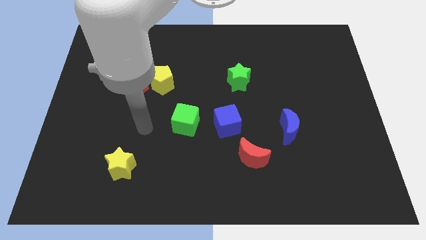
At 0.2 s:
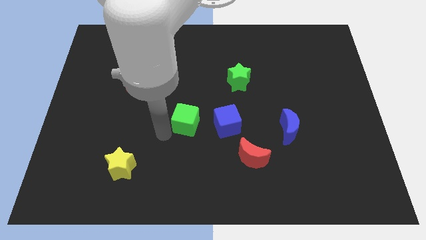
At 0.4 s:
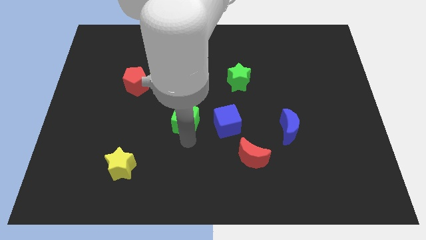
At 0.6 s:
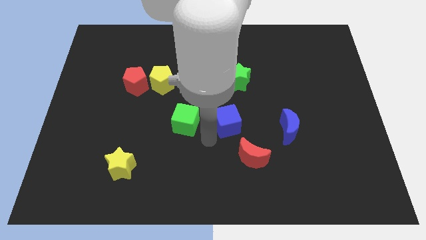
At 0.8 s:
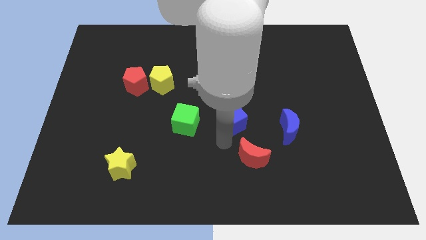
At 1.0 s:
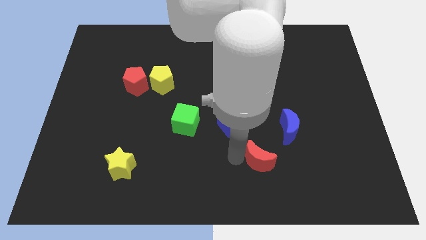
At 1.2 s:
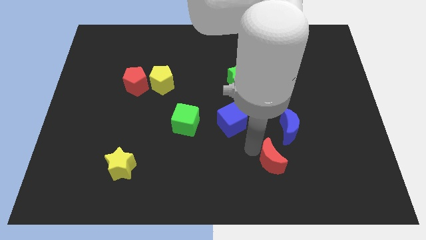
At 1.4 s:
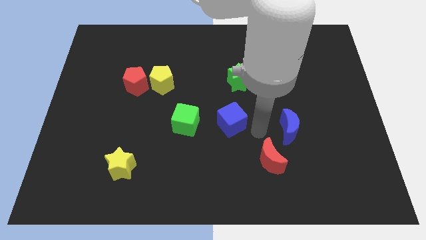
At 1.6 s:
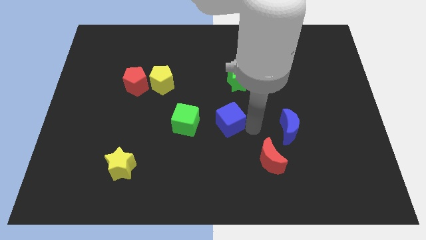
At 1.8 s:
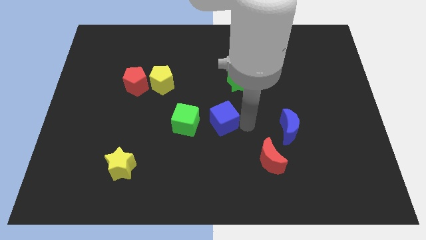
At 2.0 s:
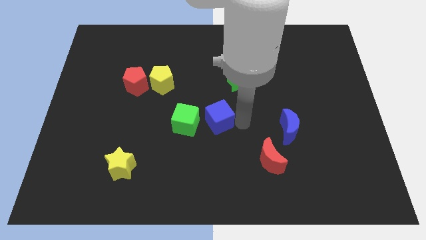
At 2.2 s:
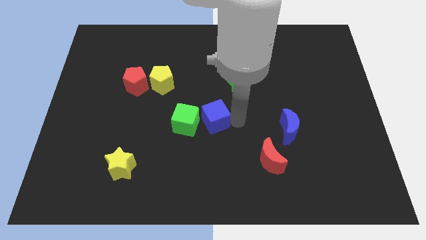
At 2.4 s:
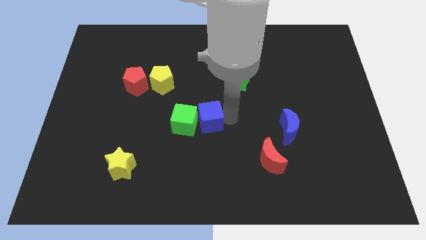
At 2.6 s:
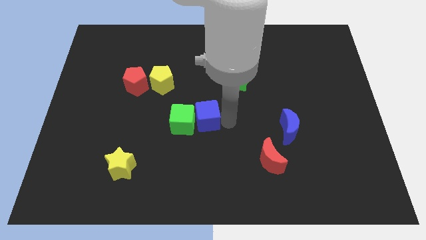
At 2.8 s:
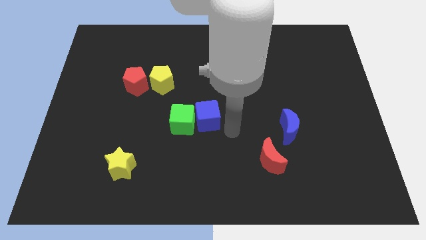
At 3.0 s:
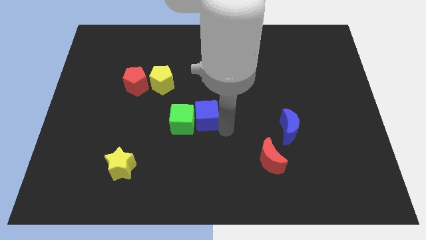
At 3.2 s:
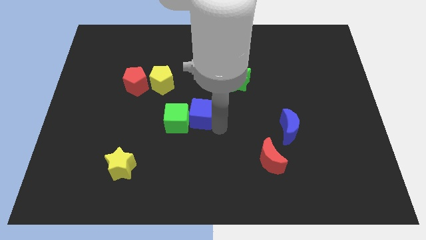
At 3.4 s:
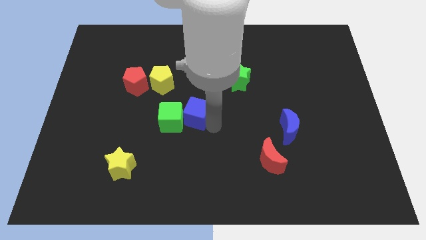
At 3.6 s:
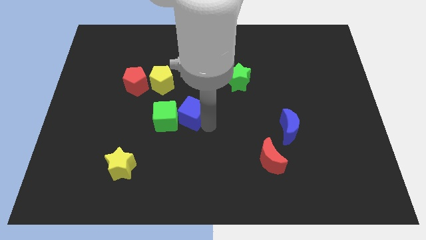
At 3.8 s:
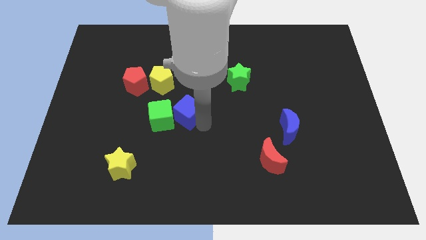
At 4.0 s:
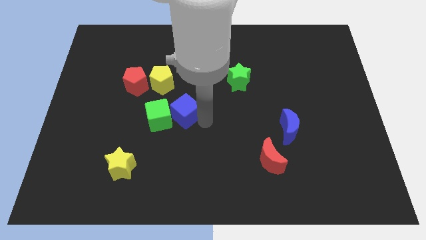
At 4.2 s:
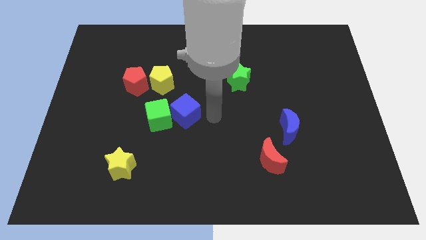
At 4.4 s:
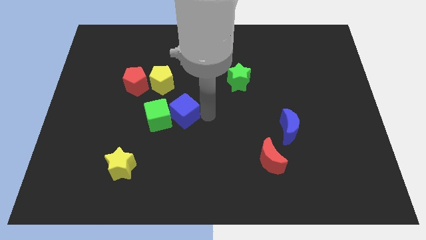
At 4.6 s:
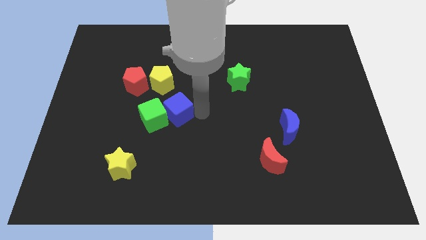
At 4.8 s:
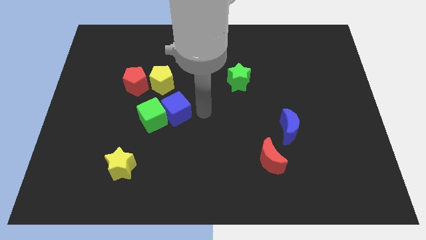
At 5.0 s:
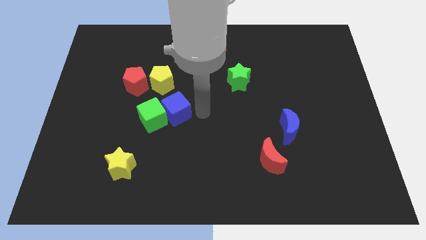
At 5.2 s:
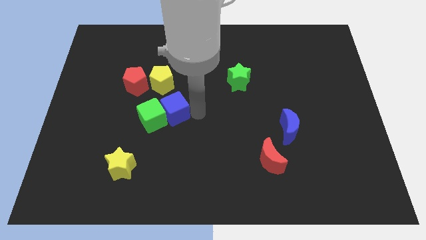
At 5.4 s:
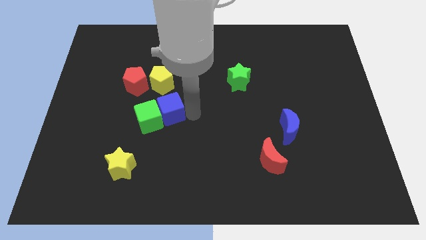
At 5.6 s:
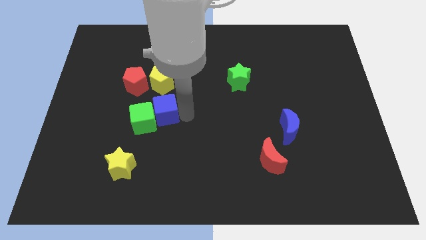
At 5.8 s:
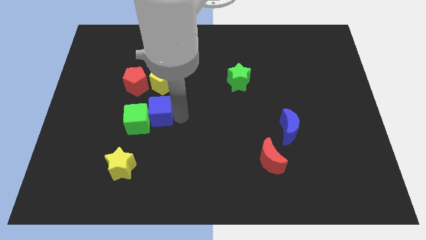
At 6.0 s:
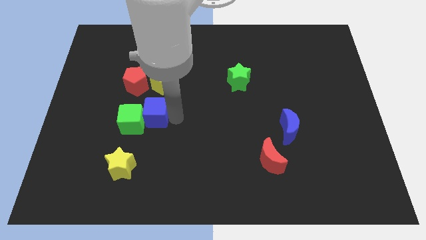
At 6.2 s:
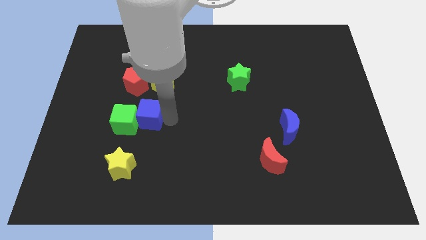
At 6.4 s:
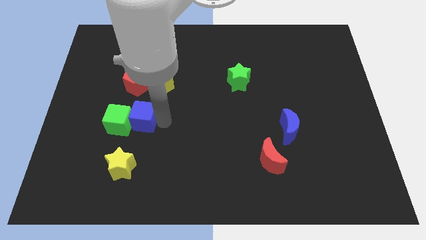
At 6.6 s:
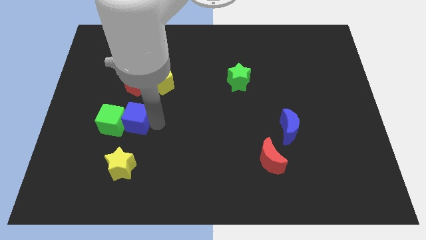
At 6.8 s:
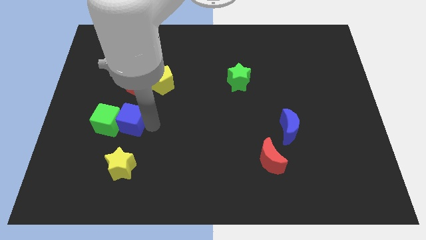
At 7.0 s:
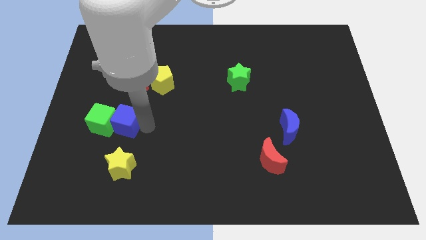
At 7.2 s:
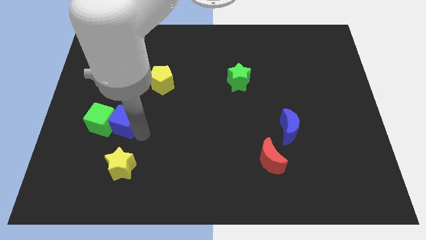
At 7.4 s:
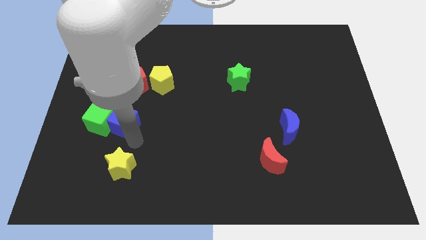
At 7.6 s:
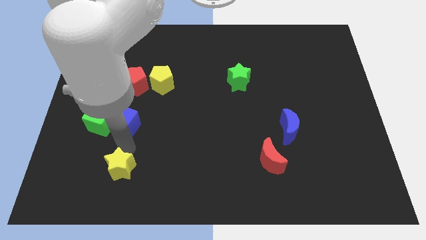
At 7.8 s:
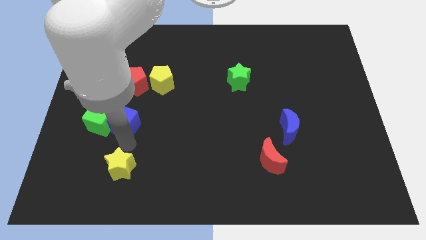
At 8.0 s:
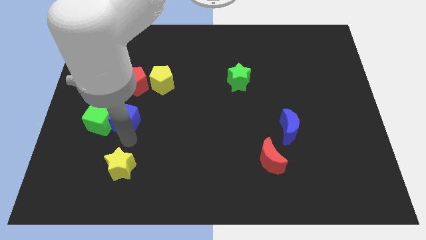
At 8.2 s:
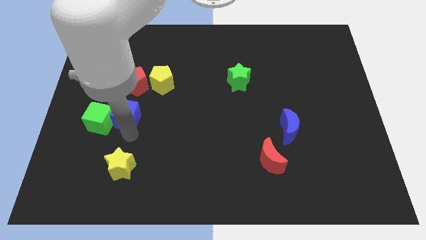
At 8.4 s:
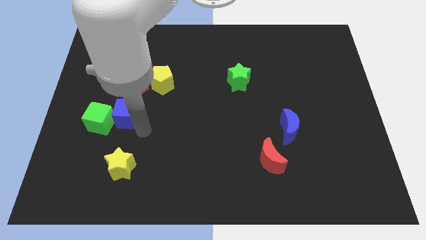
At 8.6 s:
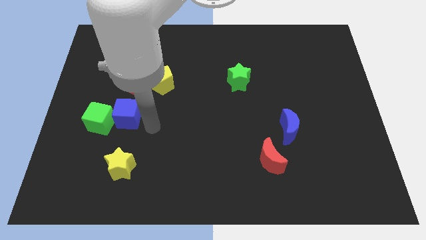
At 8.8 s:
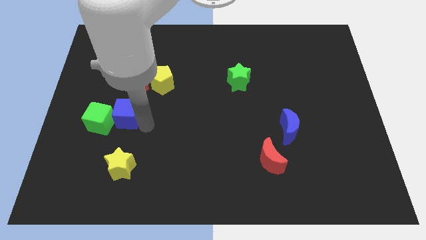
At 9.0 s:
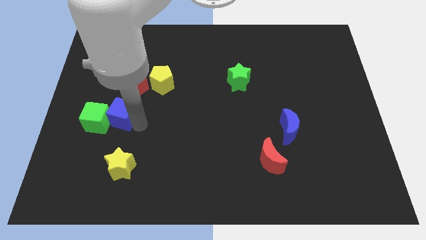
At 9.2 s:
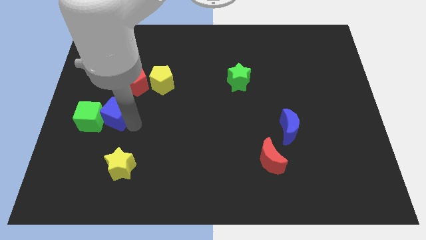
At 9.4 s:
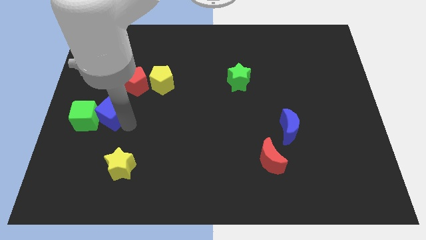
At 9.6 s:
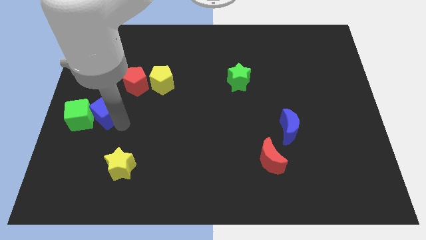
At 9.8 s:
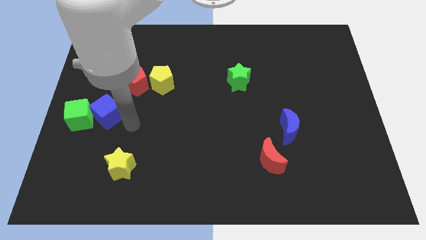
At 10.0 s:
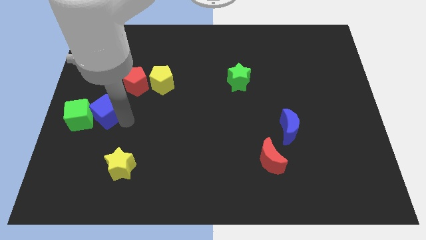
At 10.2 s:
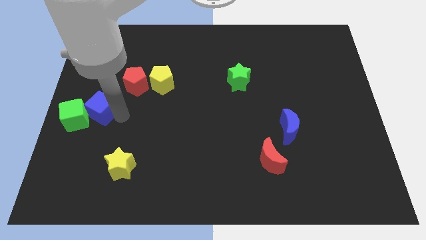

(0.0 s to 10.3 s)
put the blue cube to the center left

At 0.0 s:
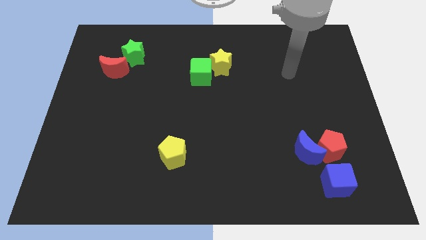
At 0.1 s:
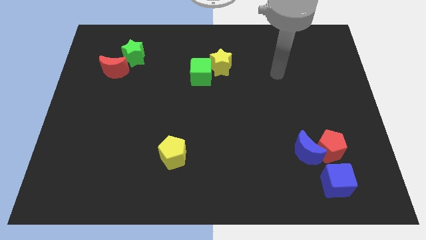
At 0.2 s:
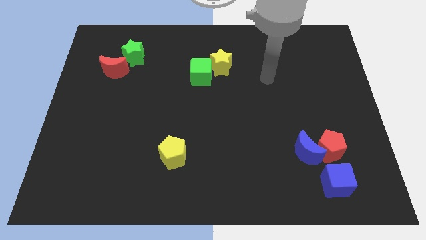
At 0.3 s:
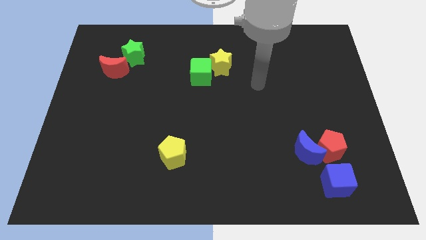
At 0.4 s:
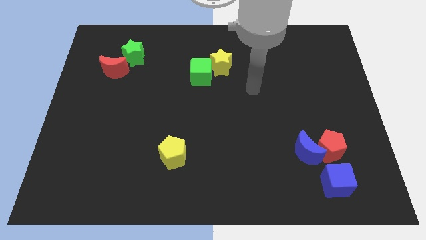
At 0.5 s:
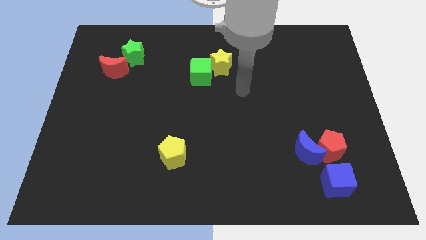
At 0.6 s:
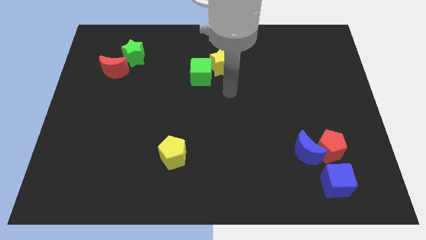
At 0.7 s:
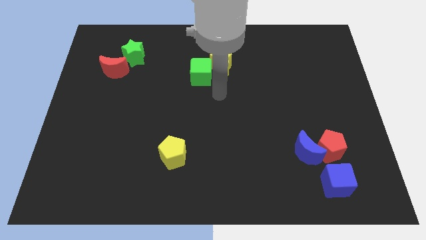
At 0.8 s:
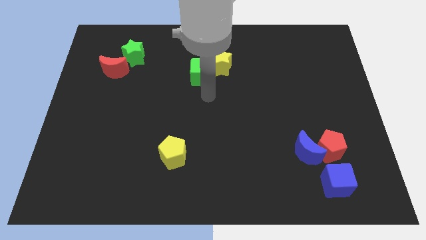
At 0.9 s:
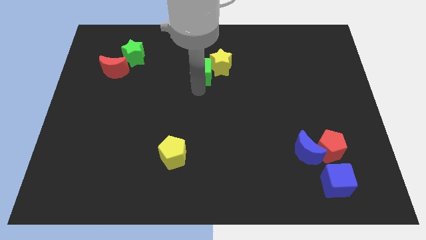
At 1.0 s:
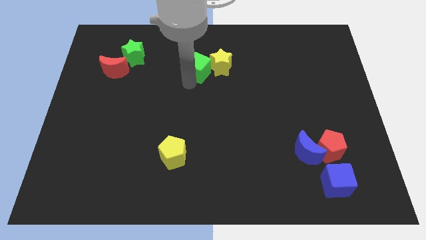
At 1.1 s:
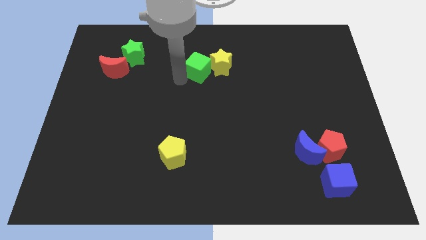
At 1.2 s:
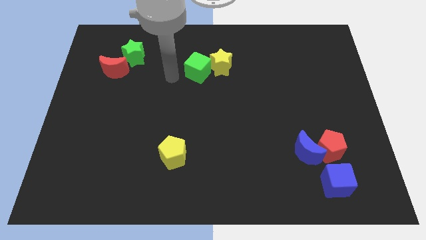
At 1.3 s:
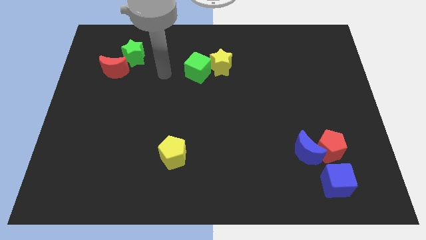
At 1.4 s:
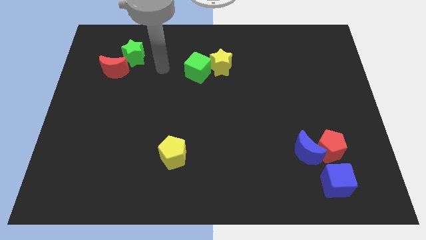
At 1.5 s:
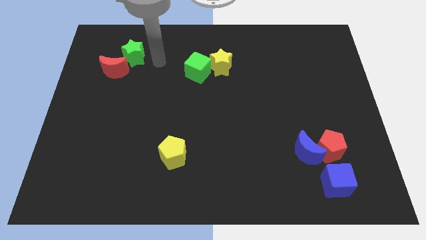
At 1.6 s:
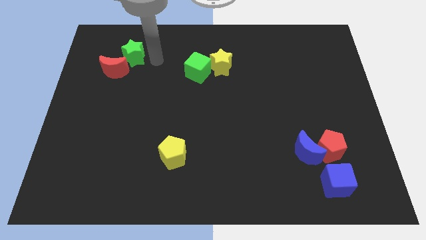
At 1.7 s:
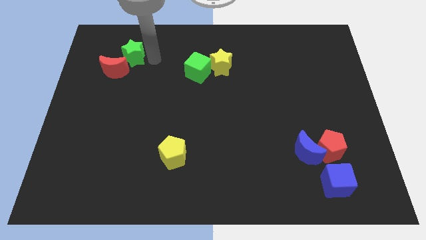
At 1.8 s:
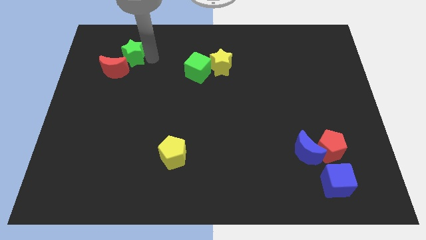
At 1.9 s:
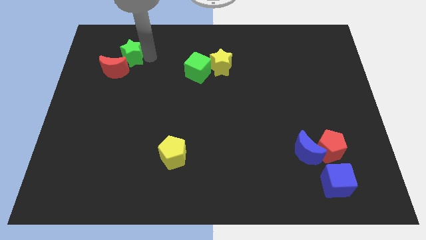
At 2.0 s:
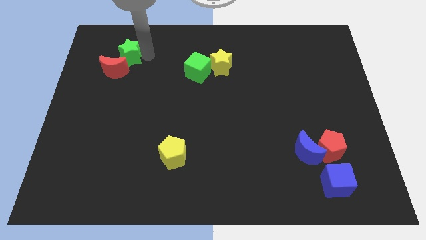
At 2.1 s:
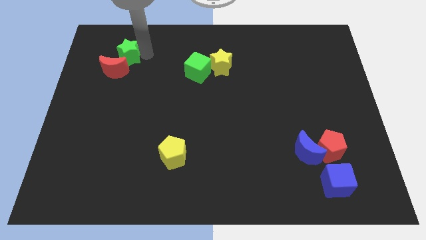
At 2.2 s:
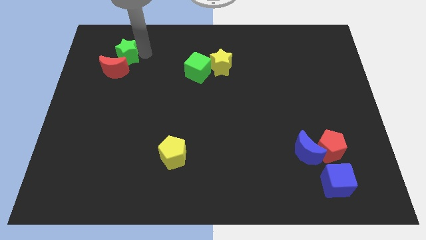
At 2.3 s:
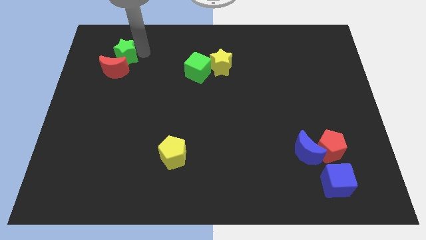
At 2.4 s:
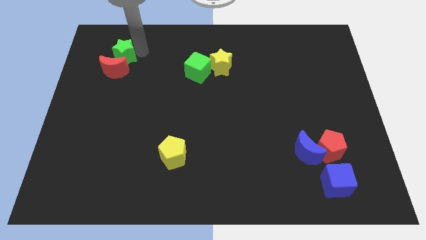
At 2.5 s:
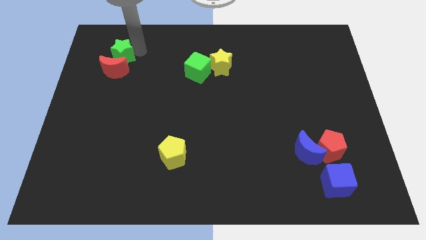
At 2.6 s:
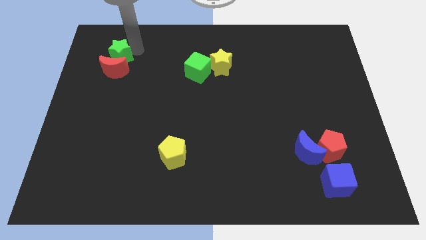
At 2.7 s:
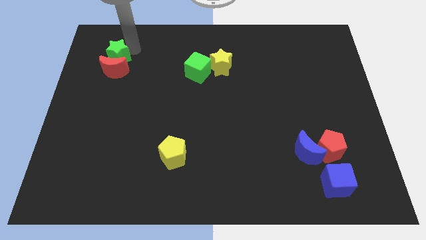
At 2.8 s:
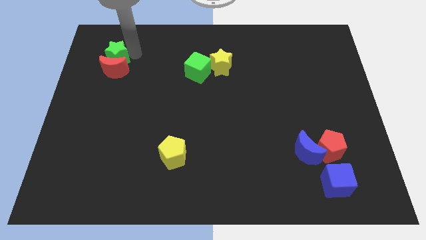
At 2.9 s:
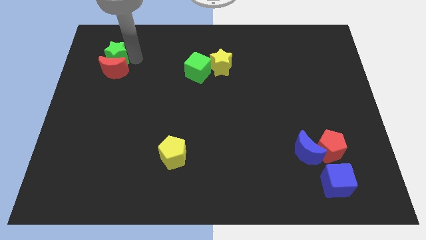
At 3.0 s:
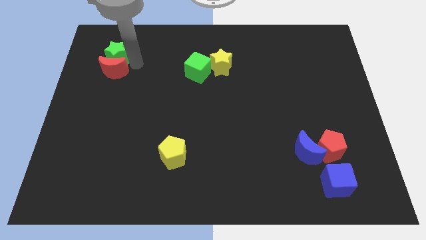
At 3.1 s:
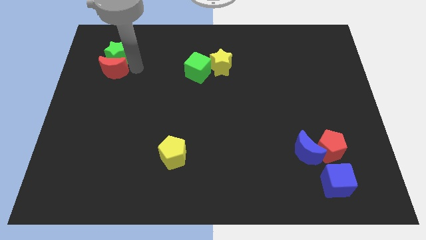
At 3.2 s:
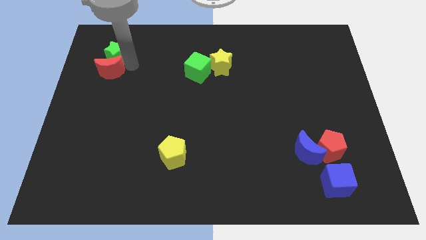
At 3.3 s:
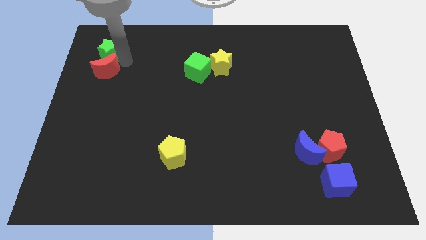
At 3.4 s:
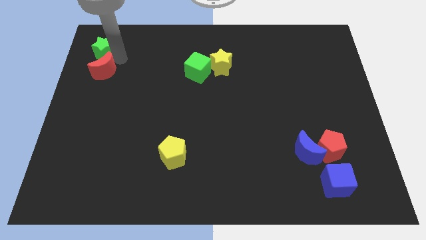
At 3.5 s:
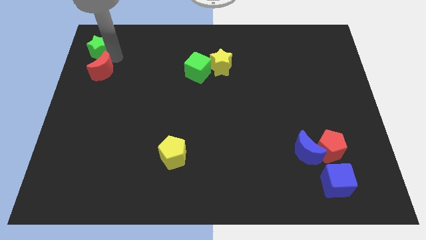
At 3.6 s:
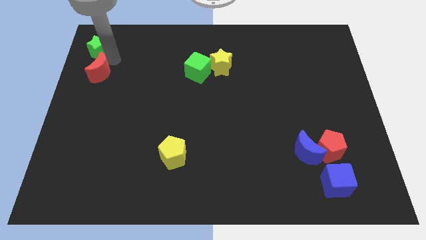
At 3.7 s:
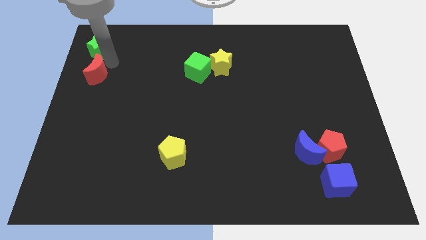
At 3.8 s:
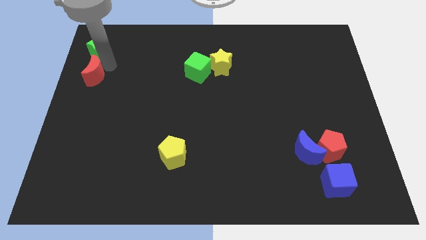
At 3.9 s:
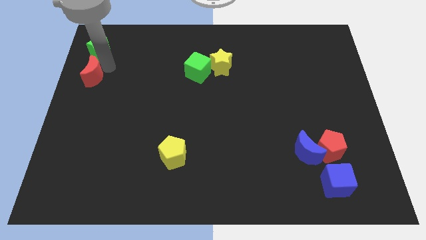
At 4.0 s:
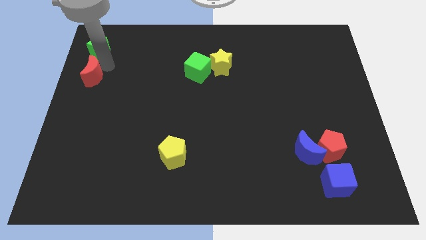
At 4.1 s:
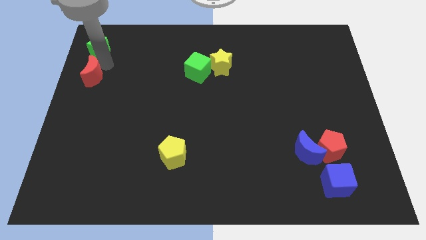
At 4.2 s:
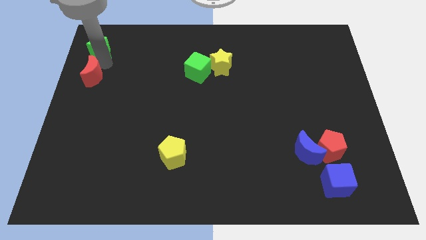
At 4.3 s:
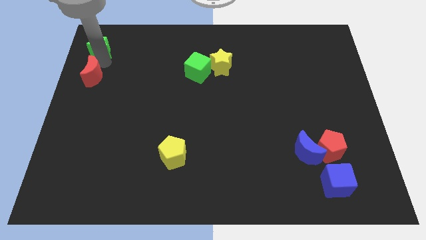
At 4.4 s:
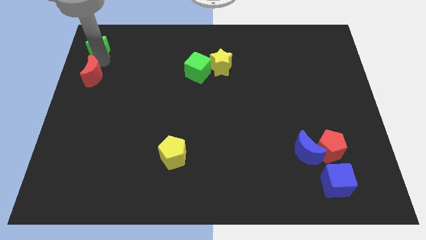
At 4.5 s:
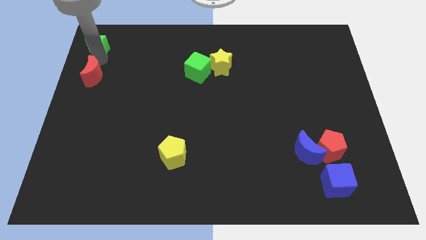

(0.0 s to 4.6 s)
move the green star to the top left of the board
